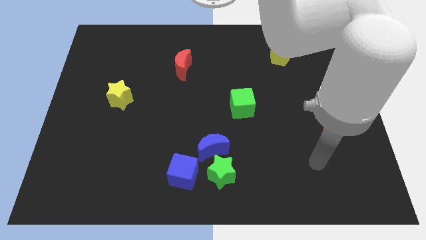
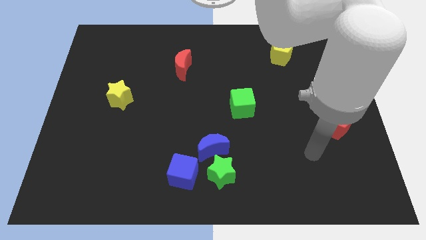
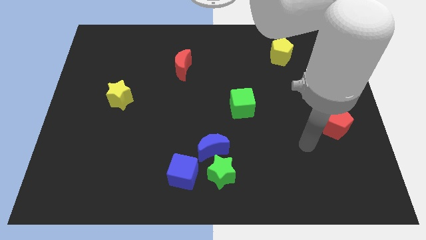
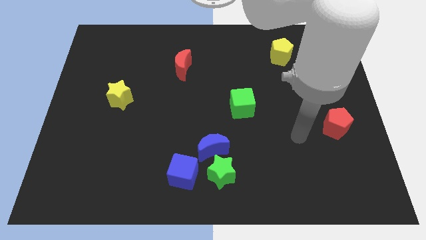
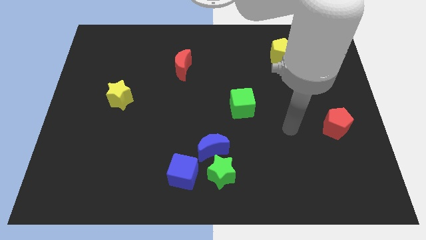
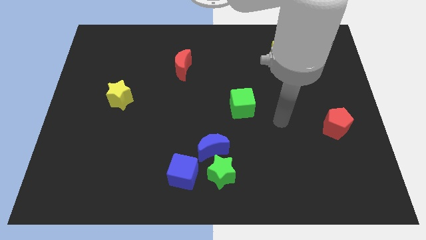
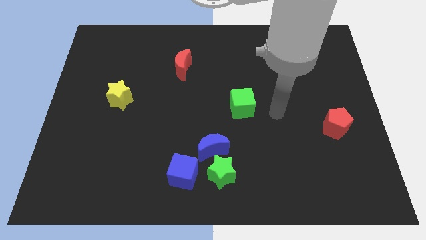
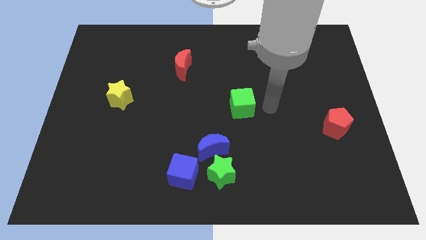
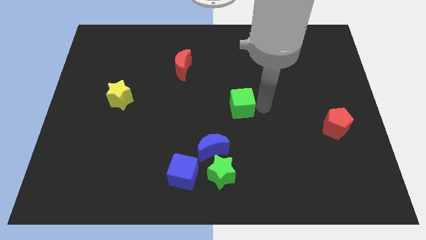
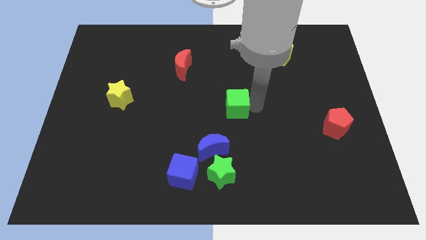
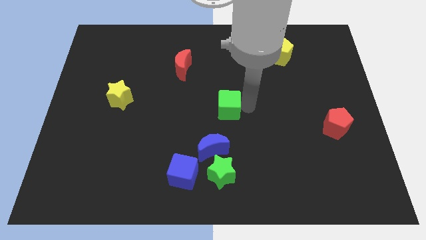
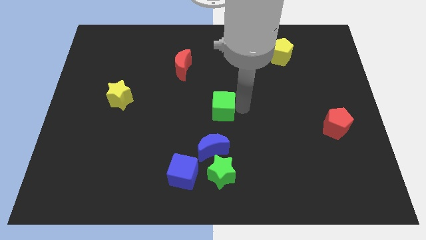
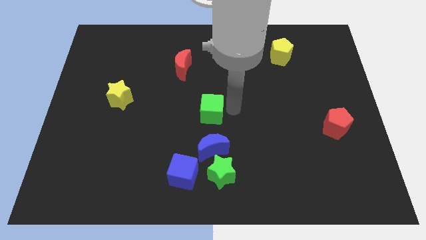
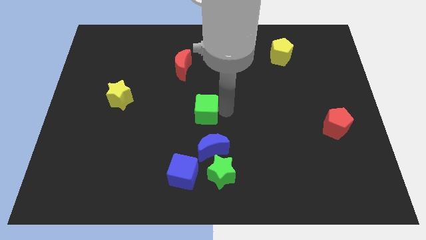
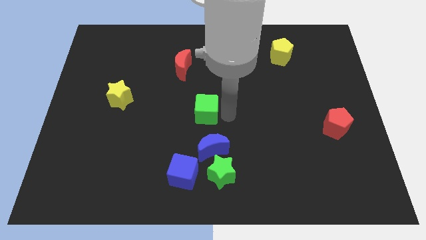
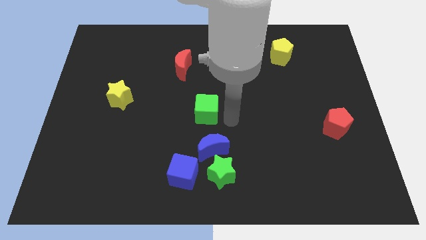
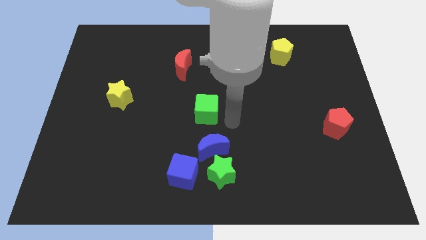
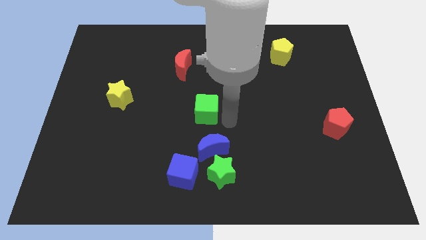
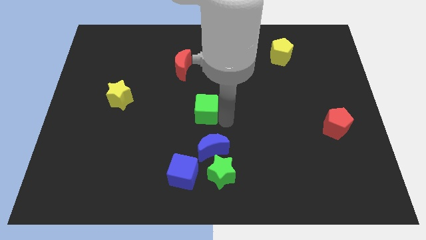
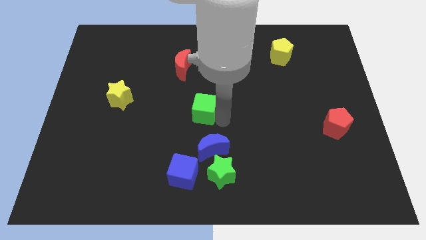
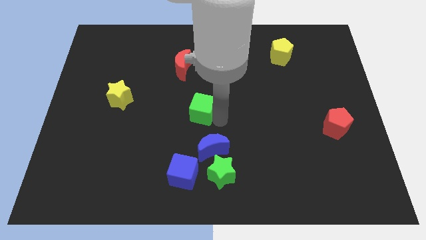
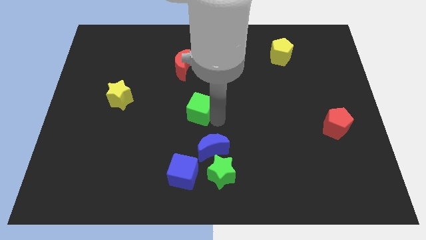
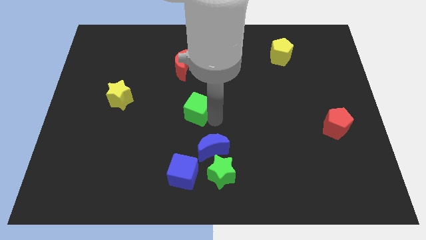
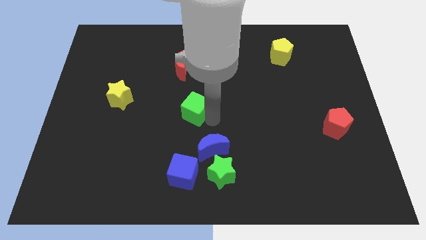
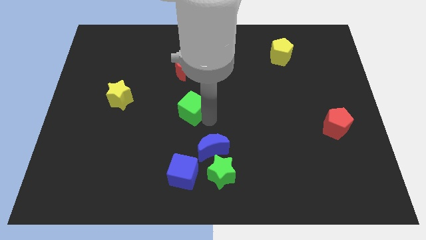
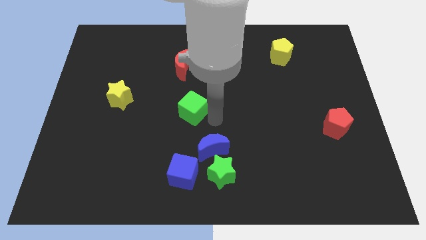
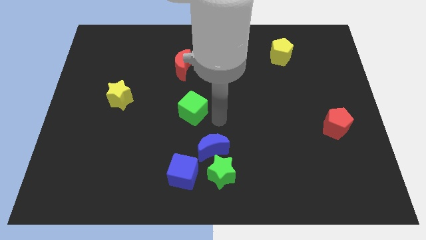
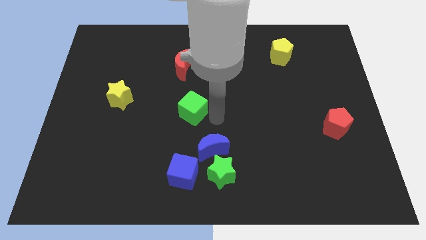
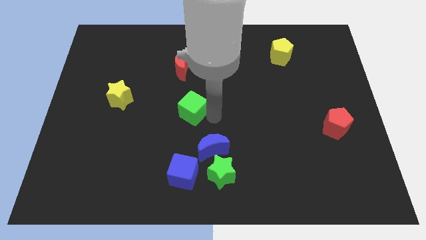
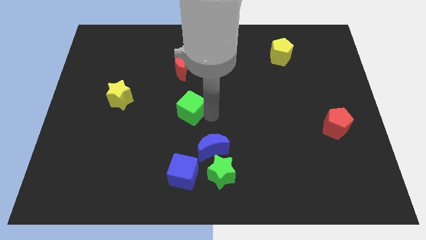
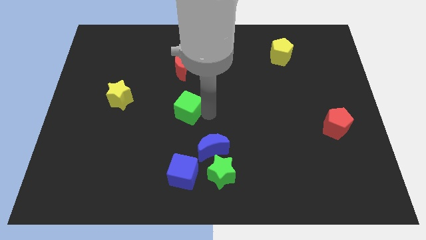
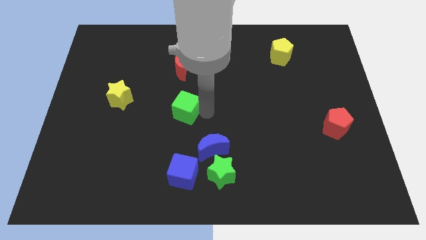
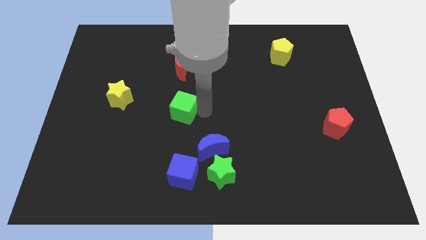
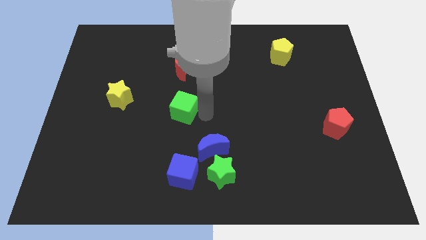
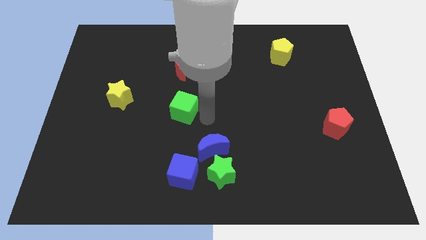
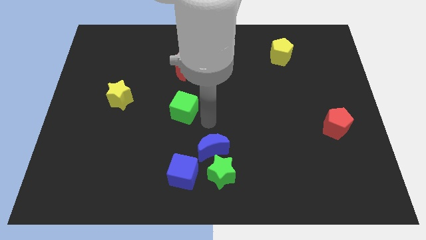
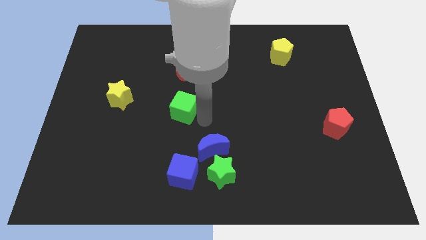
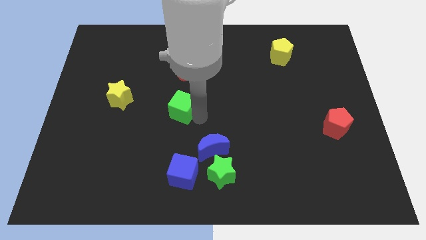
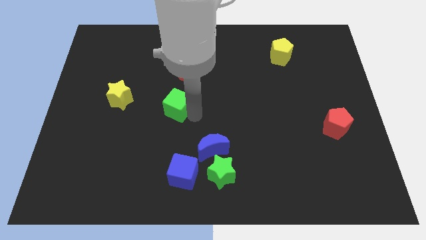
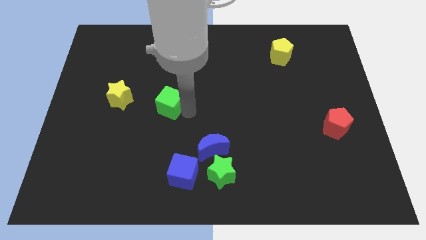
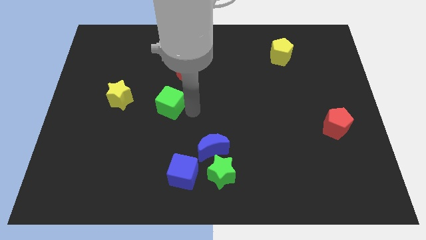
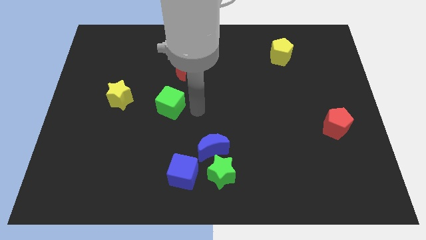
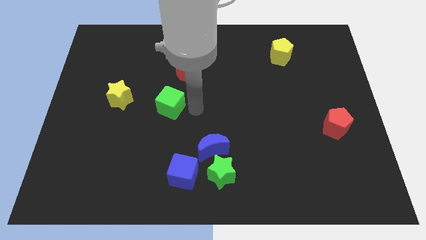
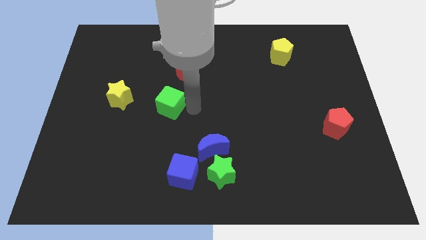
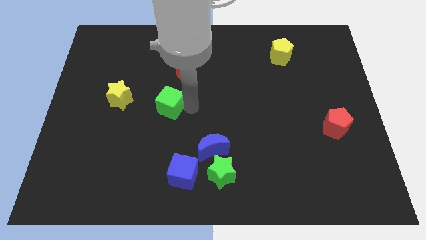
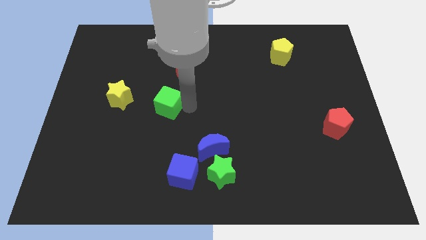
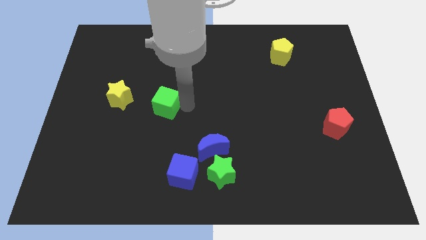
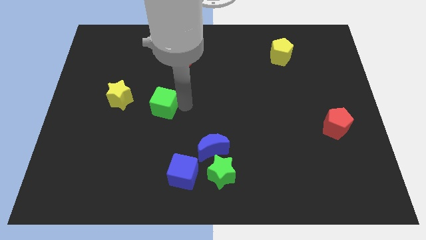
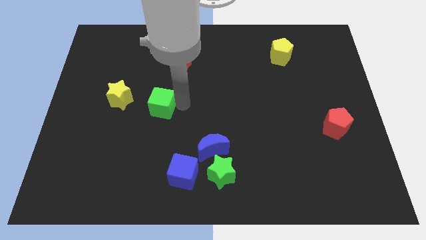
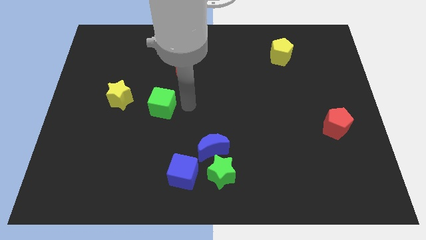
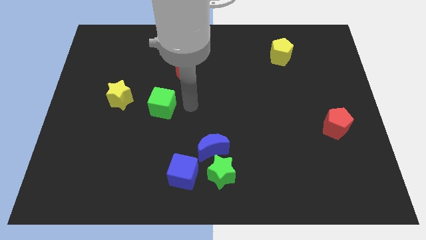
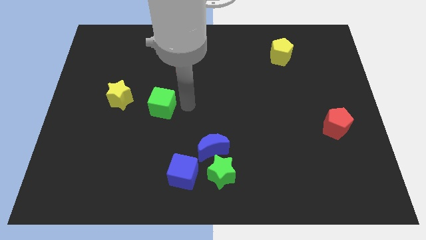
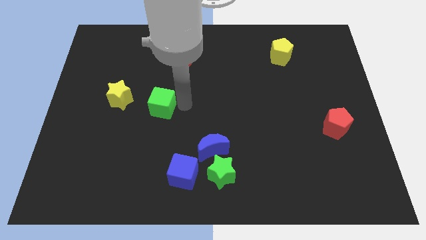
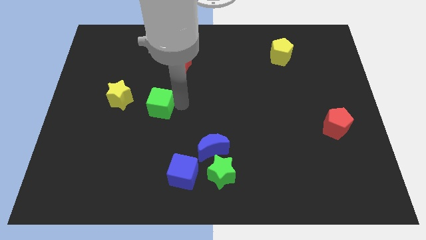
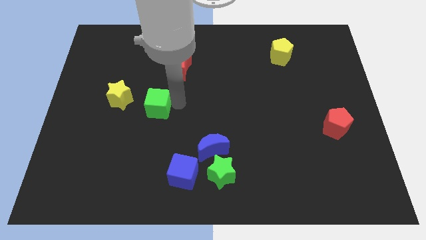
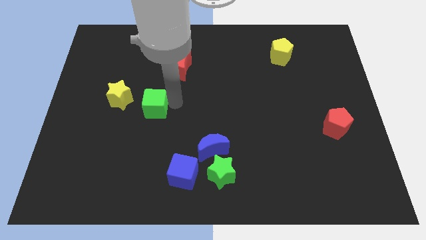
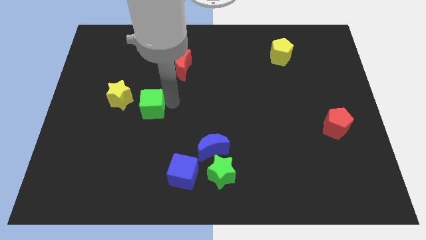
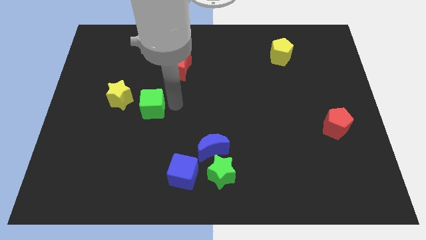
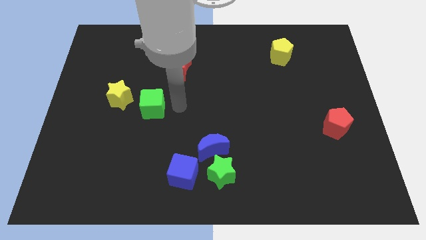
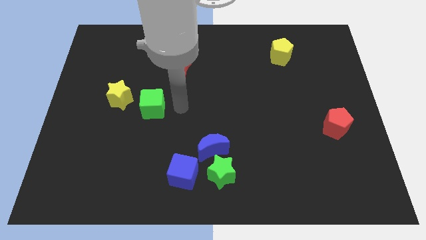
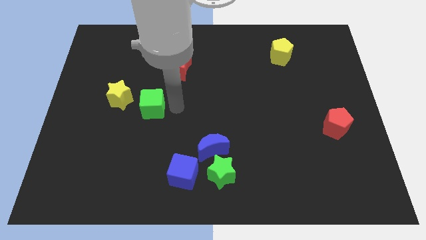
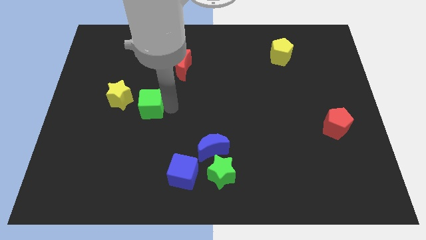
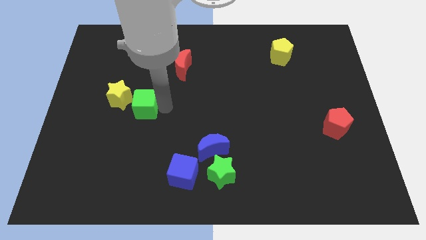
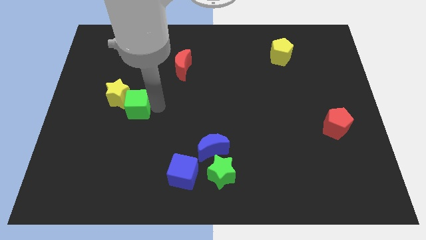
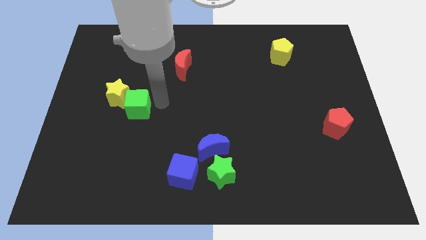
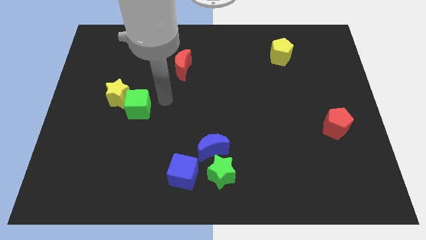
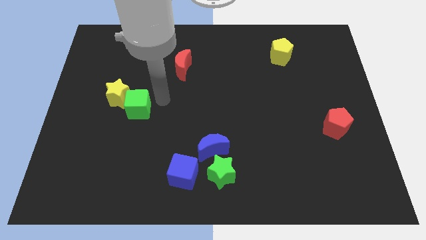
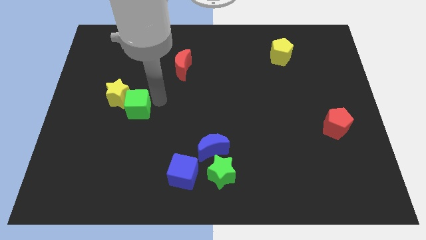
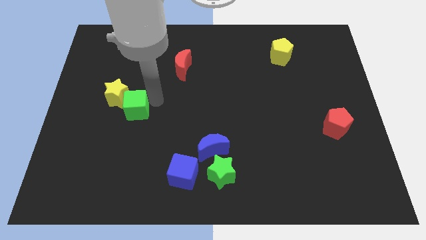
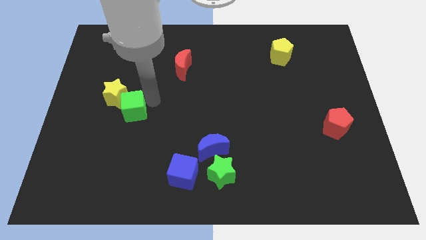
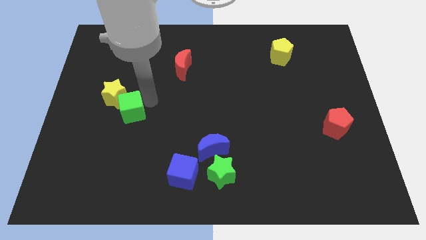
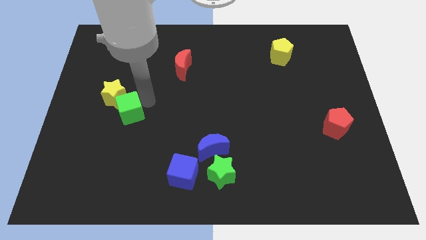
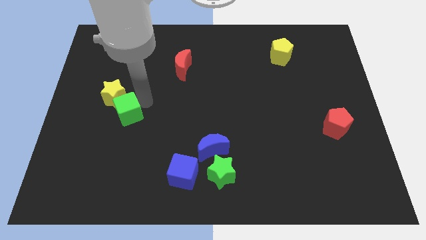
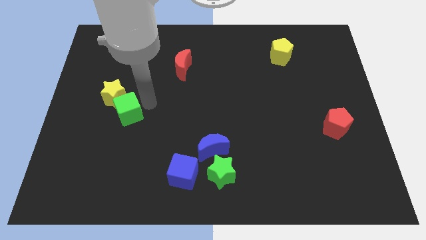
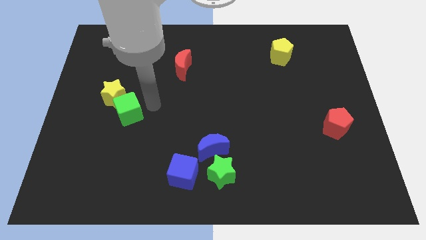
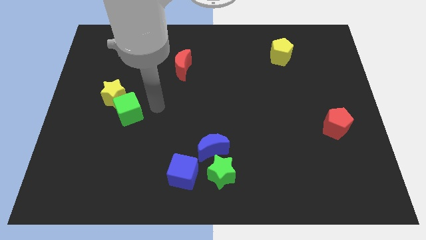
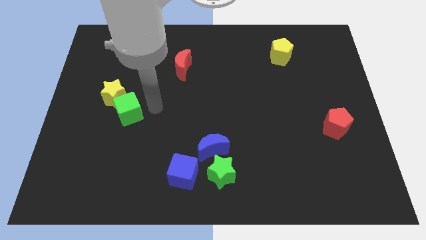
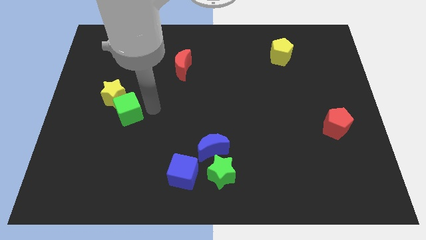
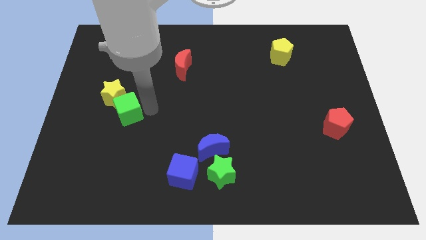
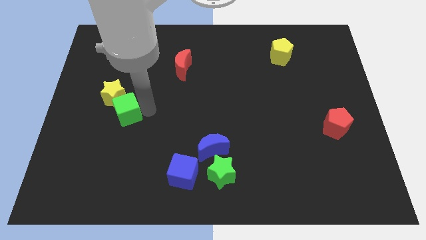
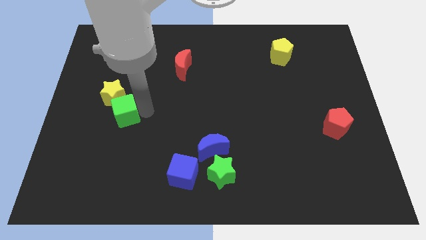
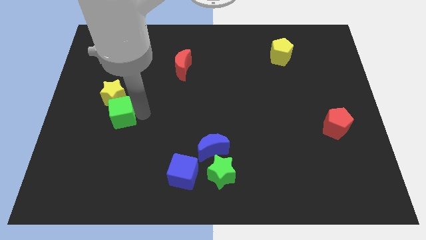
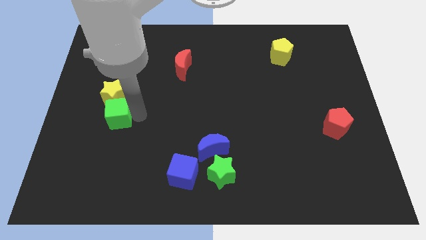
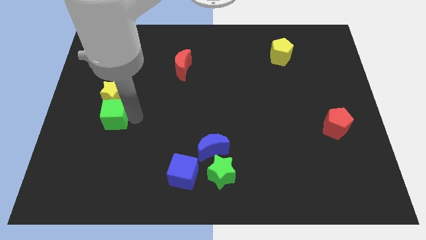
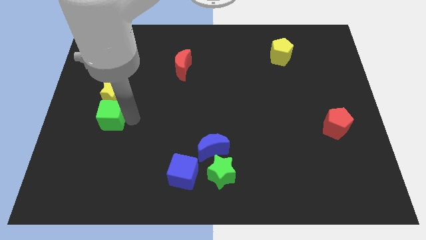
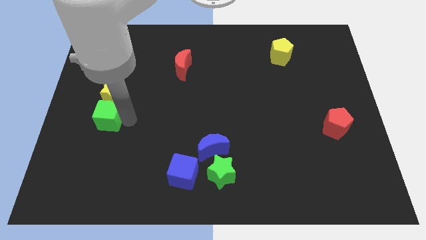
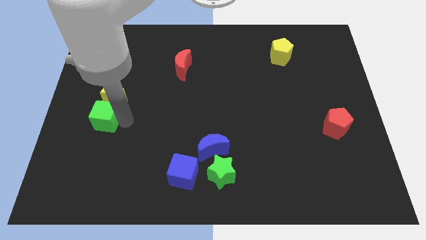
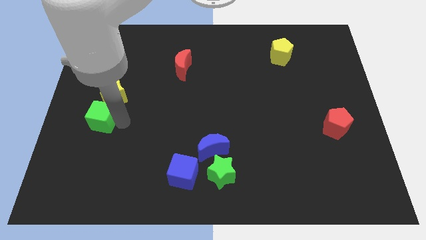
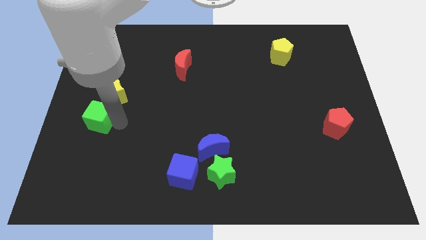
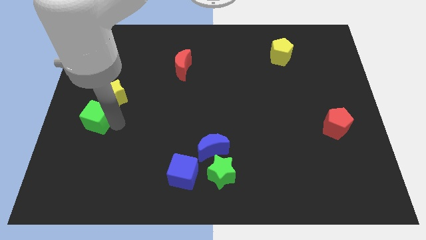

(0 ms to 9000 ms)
slide the green cube to the left side of the board
